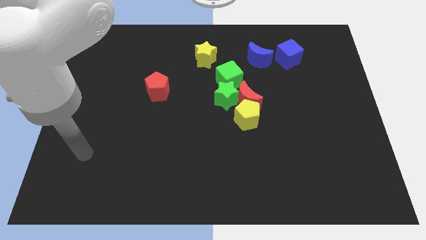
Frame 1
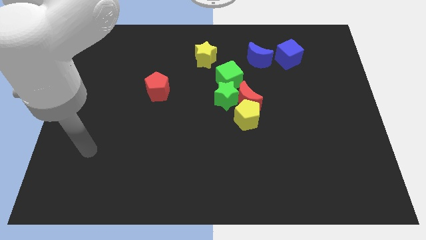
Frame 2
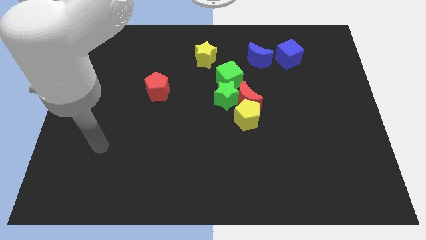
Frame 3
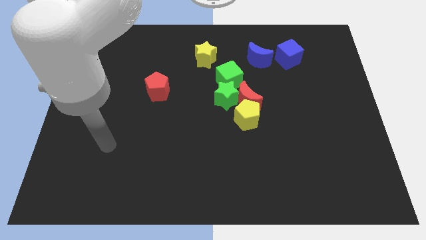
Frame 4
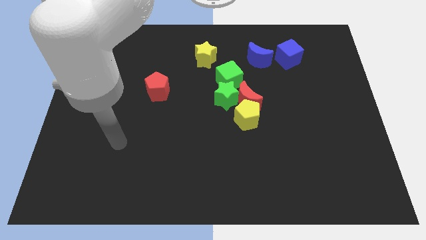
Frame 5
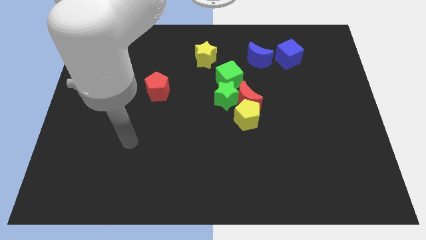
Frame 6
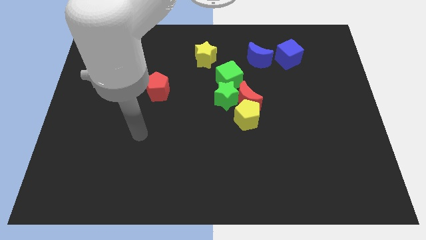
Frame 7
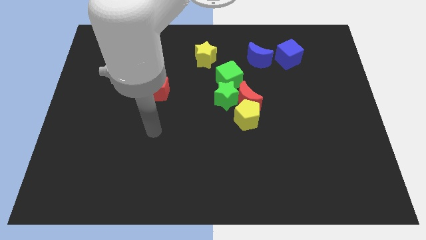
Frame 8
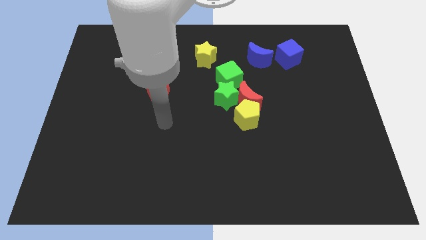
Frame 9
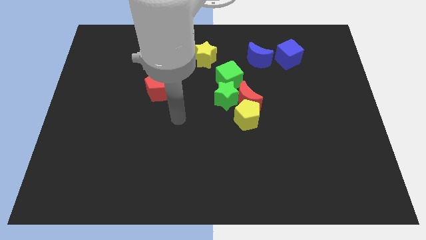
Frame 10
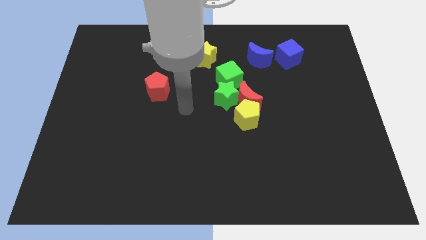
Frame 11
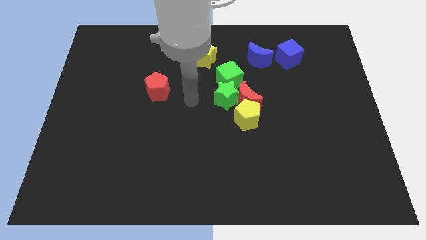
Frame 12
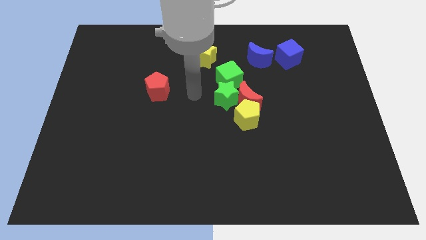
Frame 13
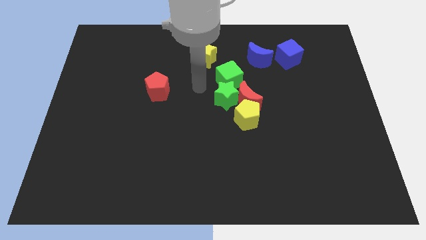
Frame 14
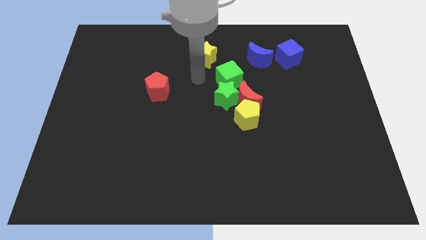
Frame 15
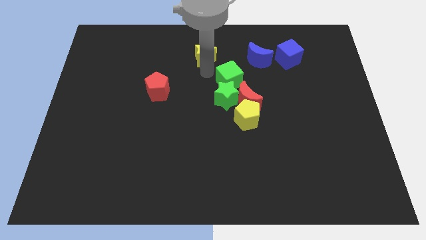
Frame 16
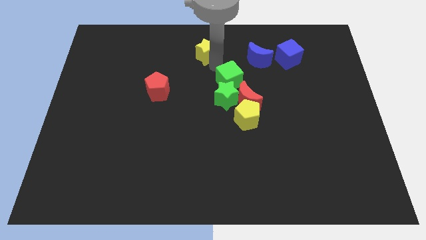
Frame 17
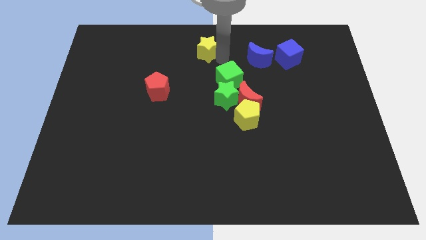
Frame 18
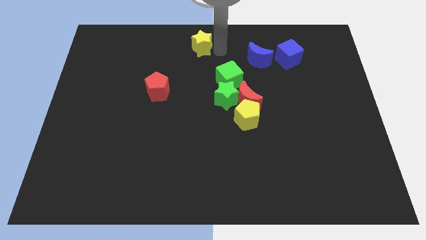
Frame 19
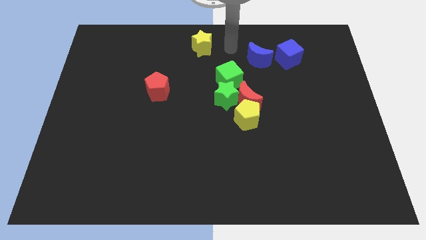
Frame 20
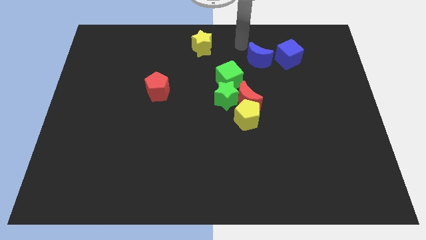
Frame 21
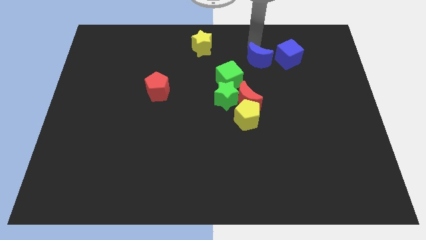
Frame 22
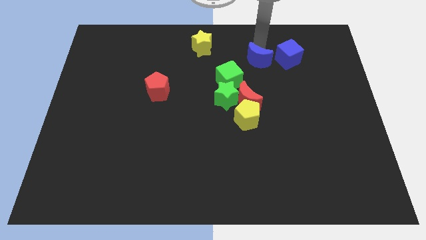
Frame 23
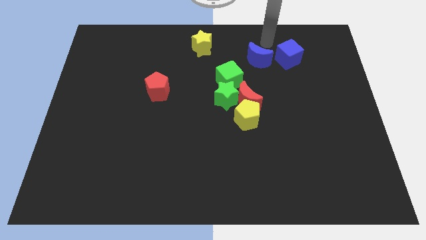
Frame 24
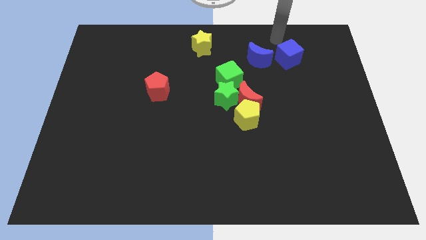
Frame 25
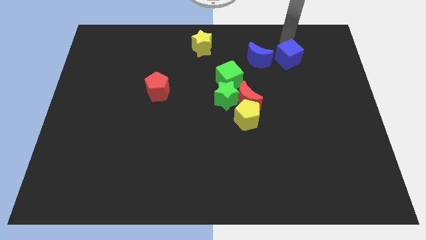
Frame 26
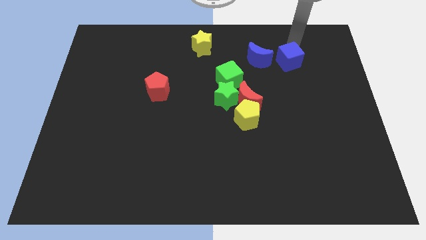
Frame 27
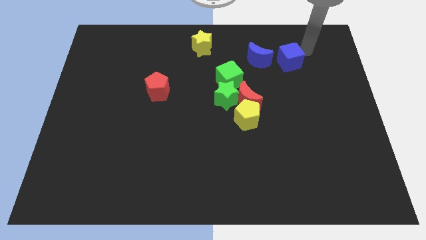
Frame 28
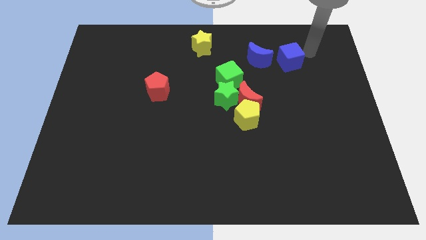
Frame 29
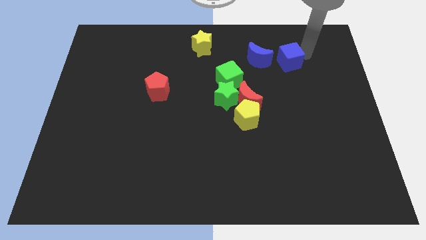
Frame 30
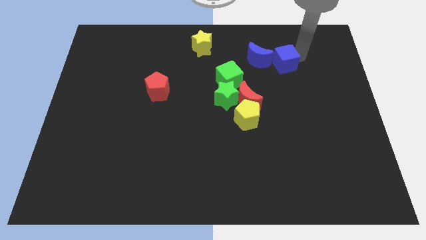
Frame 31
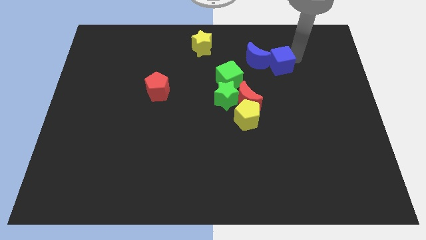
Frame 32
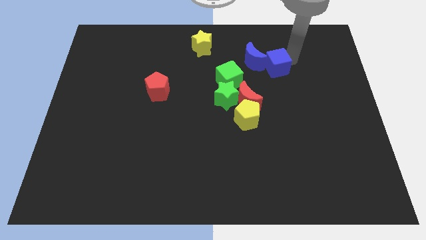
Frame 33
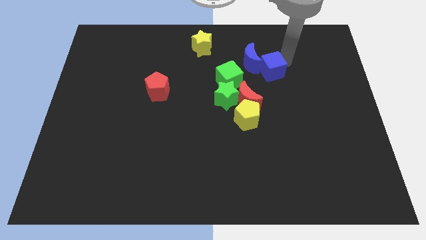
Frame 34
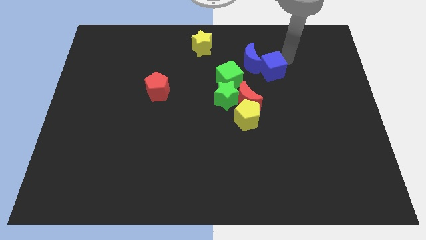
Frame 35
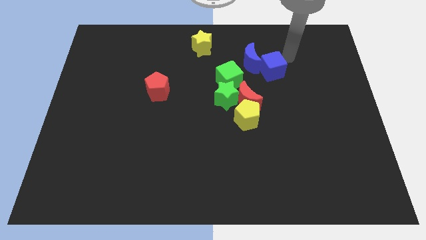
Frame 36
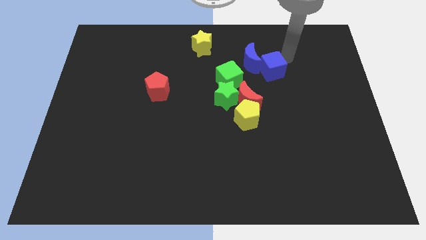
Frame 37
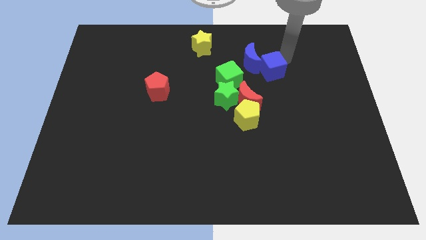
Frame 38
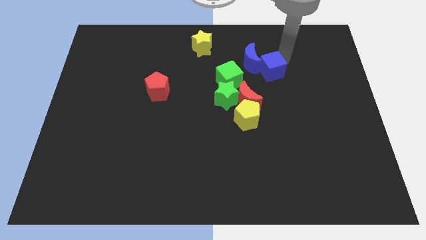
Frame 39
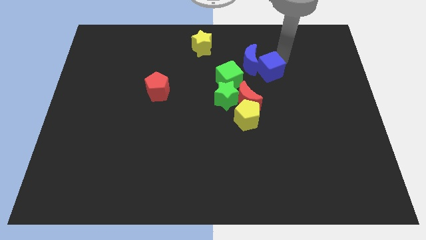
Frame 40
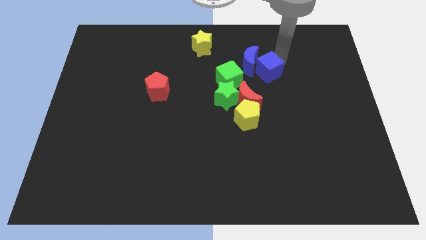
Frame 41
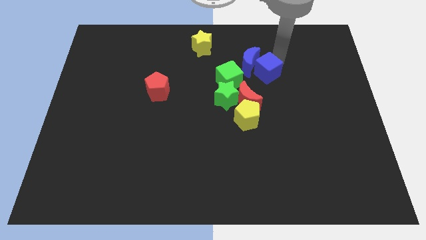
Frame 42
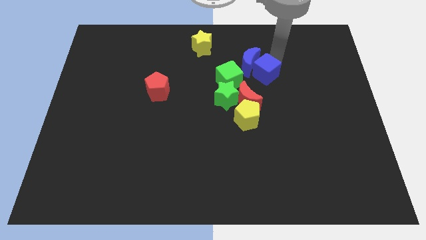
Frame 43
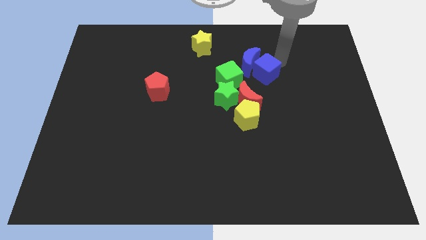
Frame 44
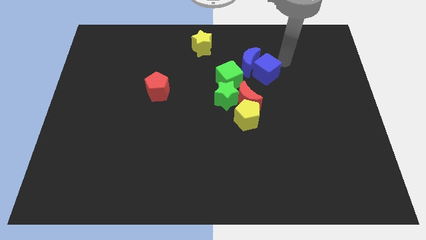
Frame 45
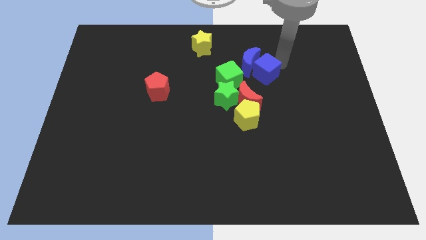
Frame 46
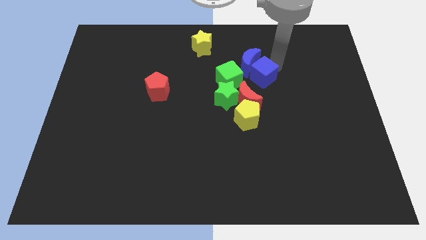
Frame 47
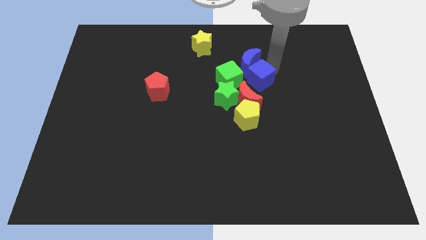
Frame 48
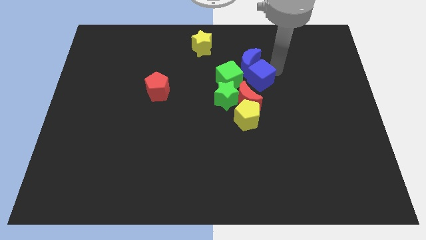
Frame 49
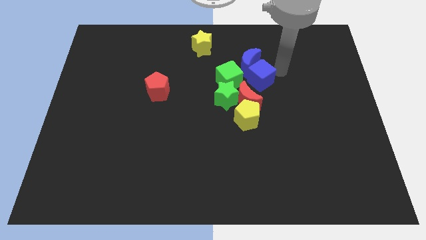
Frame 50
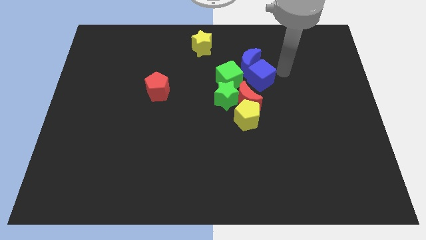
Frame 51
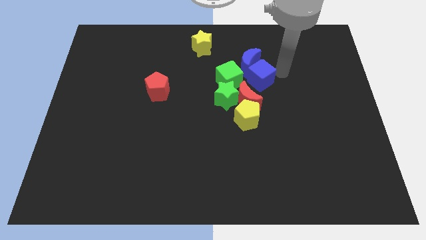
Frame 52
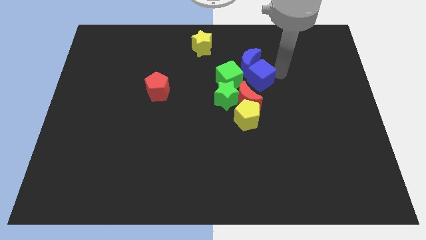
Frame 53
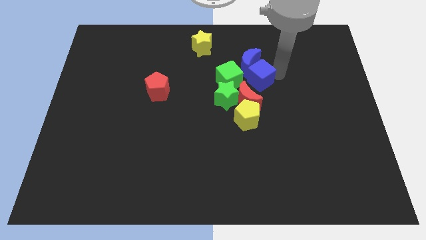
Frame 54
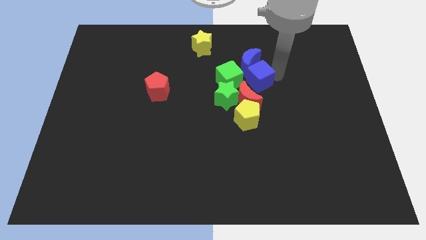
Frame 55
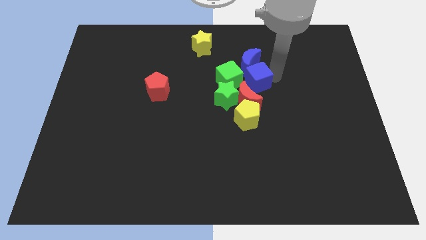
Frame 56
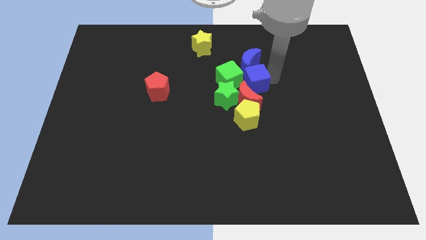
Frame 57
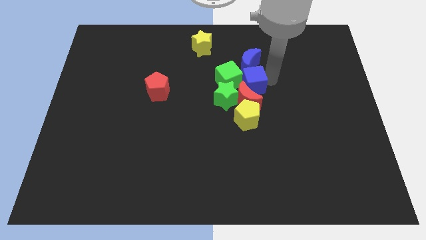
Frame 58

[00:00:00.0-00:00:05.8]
put the blue cube to the green cube

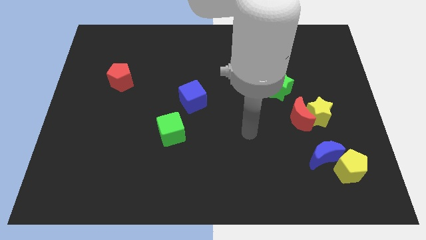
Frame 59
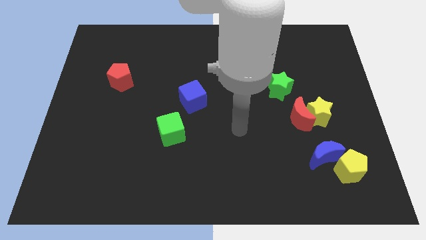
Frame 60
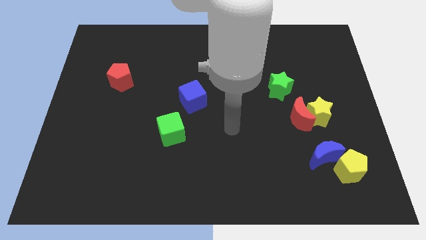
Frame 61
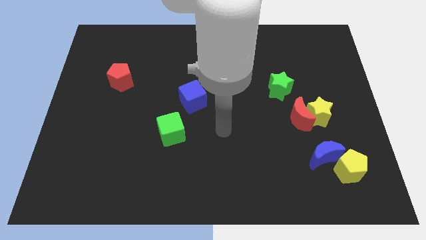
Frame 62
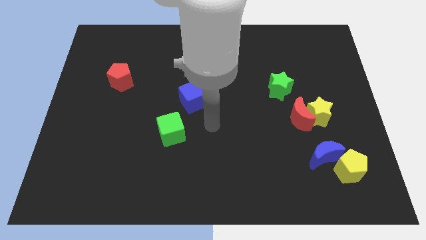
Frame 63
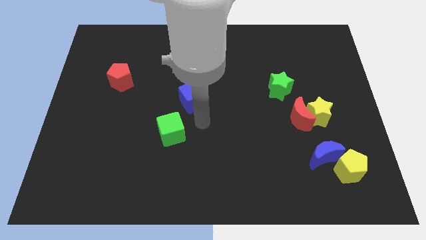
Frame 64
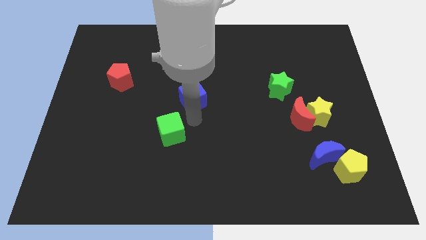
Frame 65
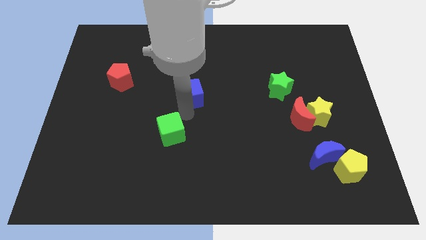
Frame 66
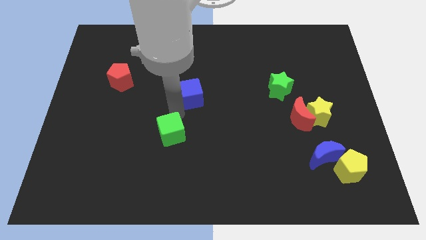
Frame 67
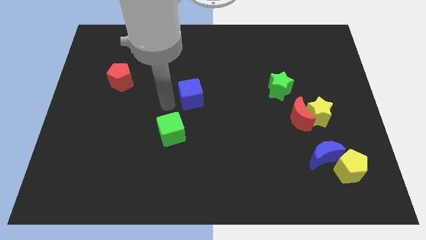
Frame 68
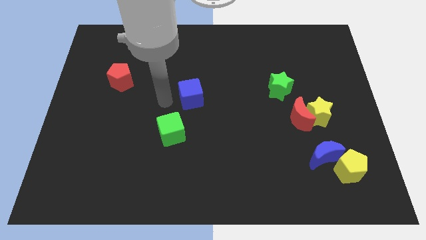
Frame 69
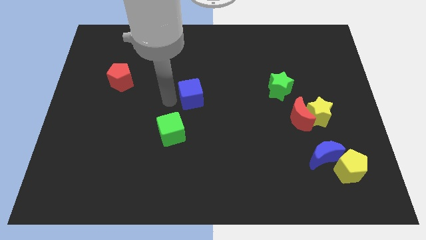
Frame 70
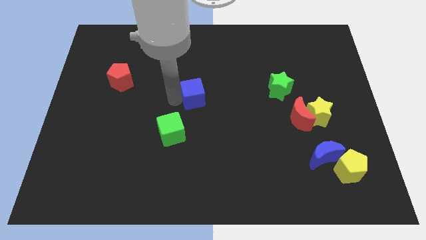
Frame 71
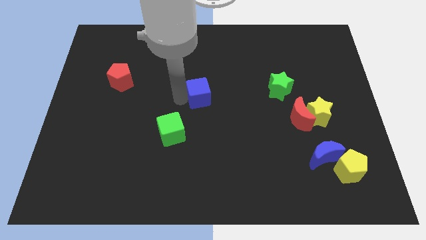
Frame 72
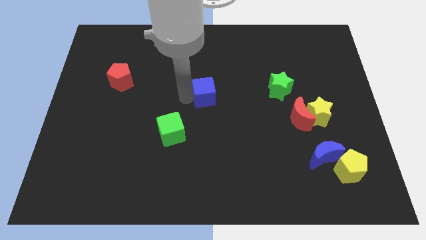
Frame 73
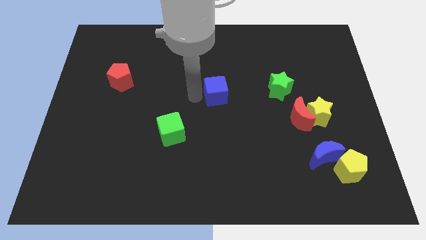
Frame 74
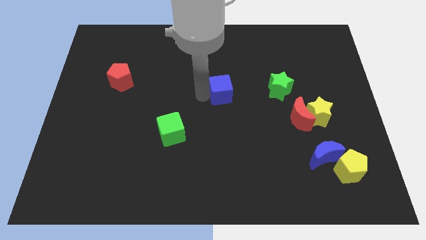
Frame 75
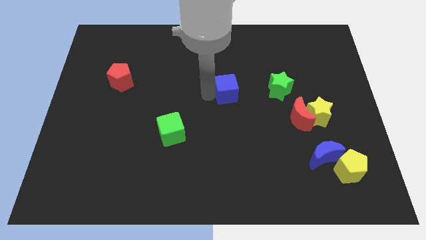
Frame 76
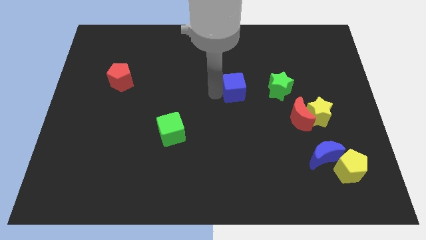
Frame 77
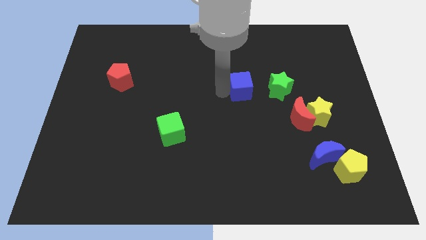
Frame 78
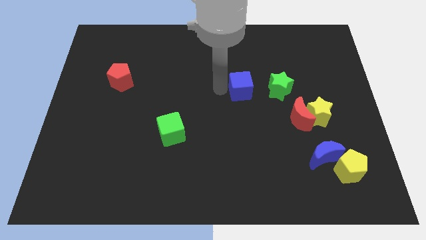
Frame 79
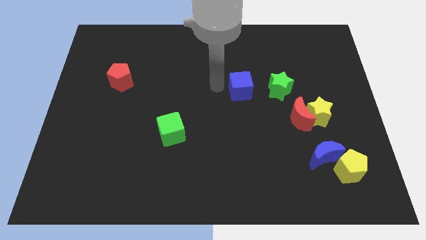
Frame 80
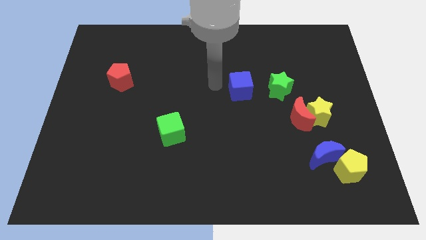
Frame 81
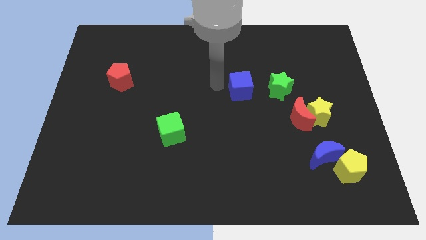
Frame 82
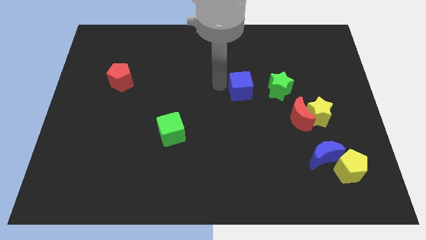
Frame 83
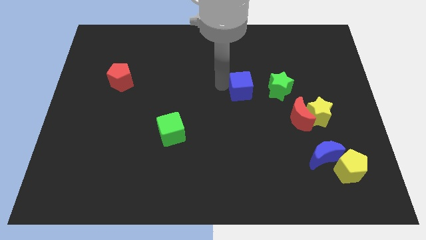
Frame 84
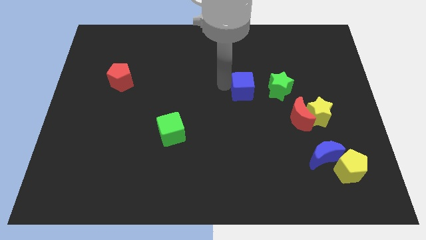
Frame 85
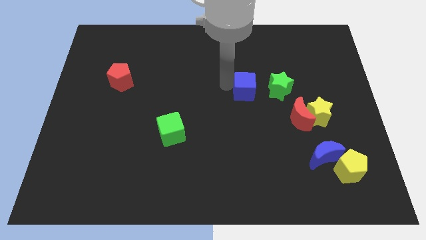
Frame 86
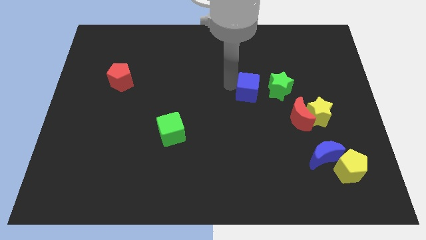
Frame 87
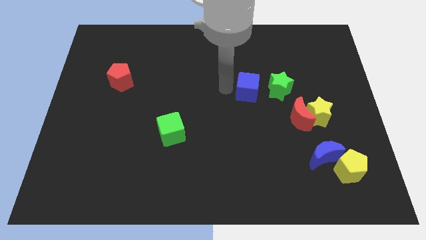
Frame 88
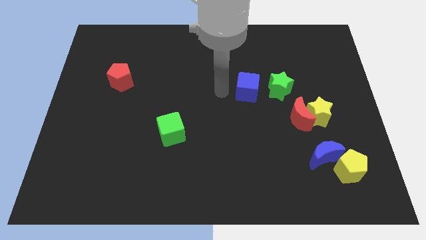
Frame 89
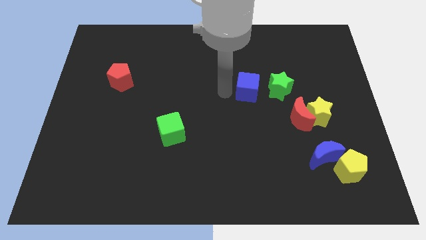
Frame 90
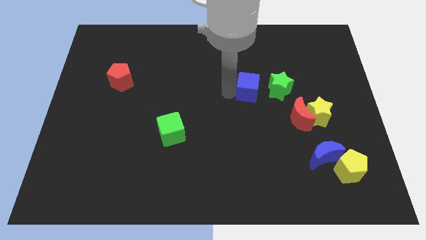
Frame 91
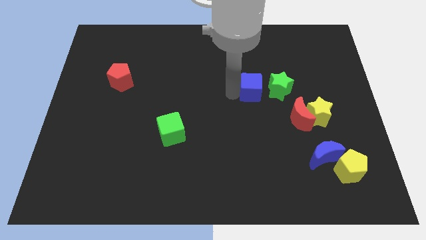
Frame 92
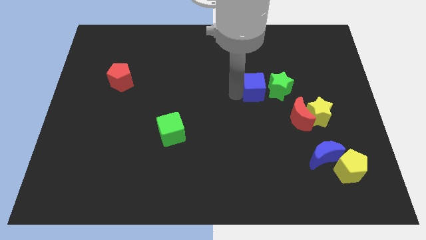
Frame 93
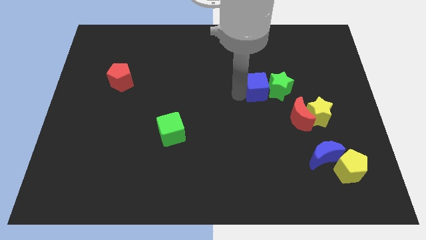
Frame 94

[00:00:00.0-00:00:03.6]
push the blue cube close to the green star
